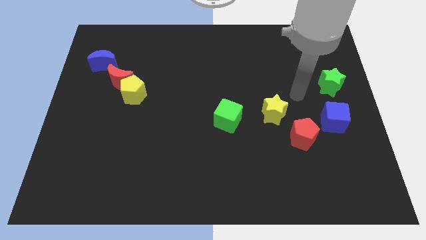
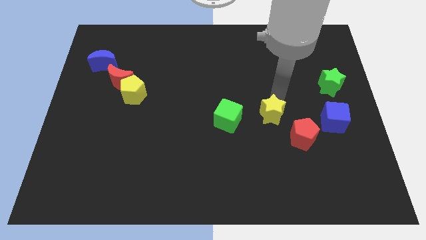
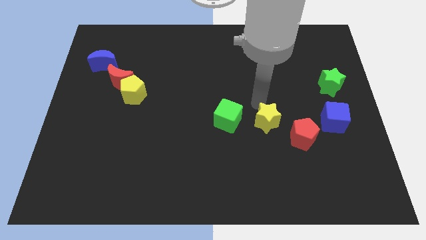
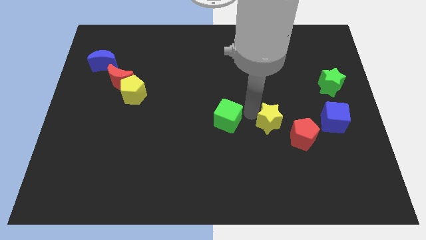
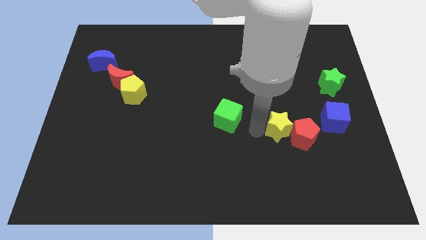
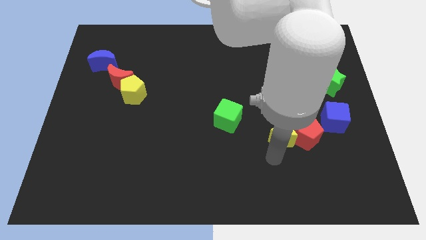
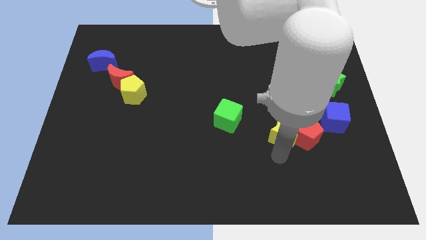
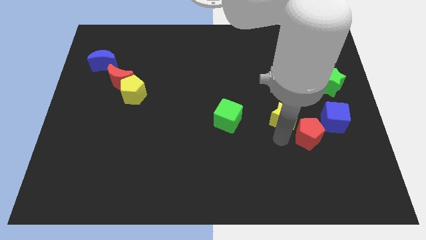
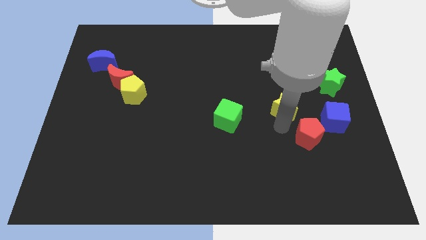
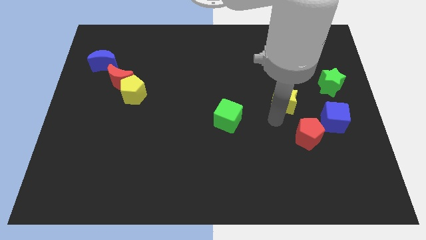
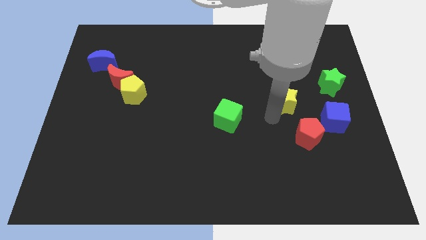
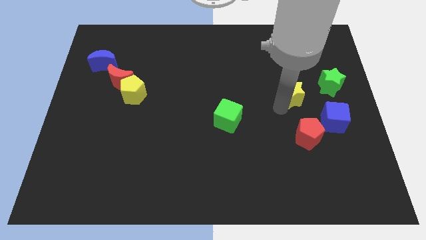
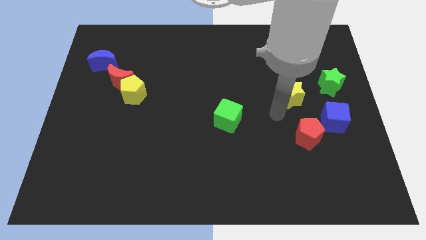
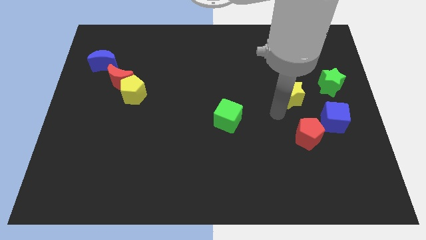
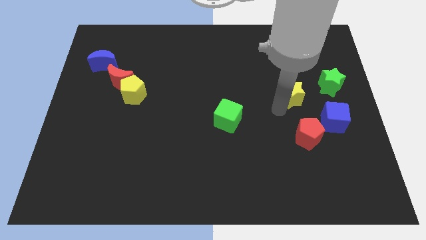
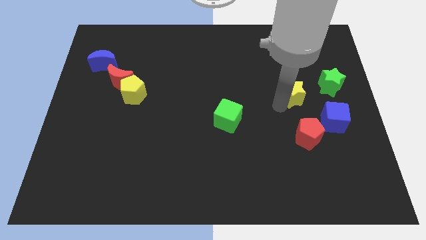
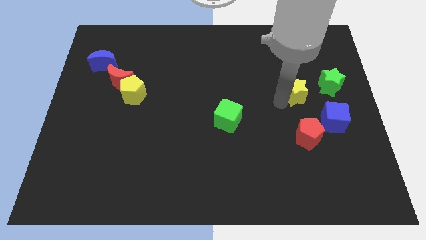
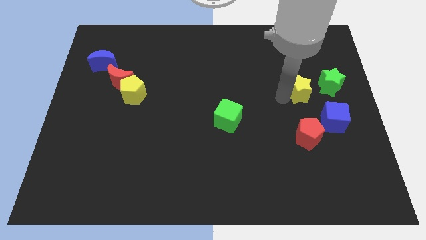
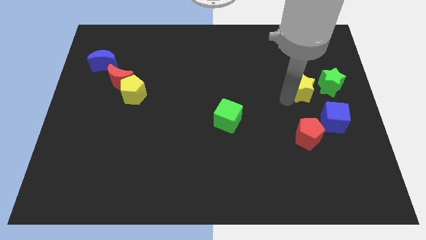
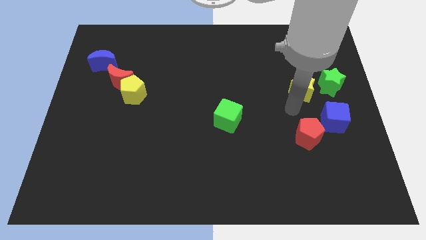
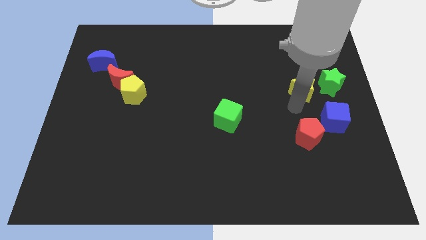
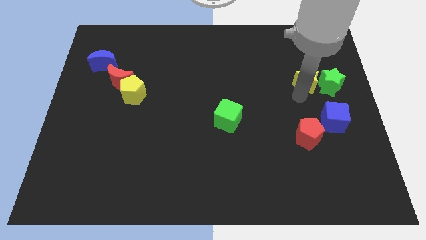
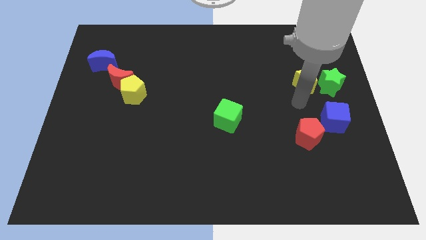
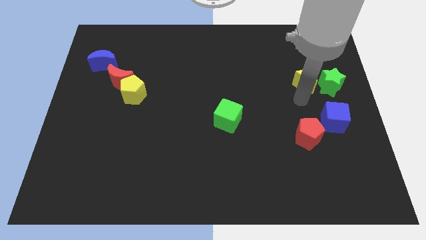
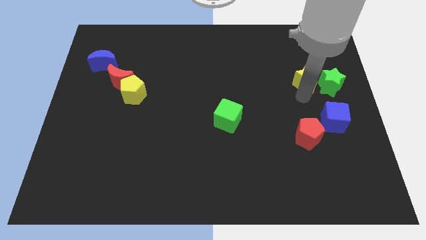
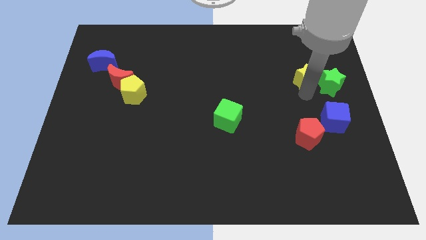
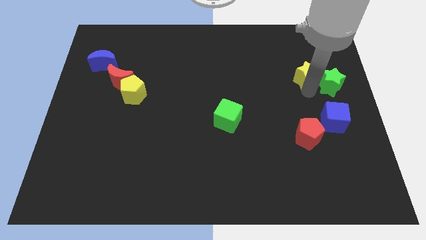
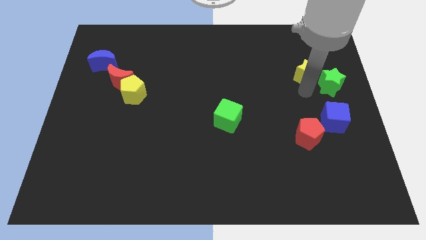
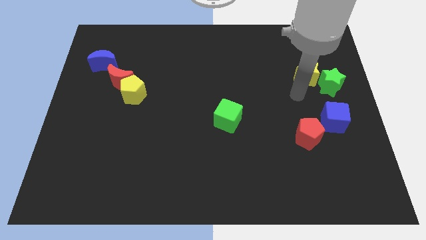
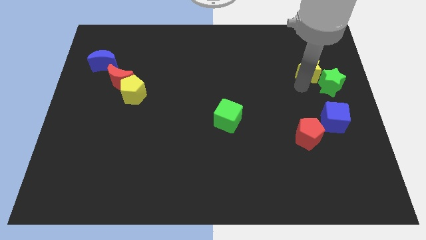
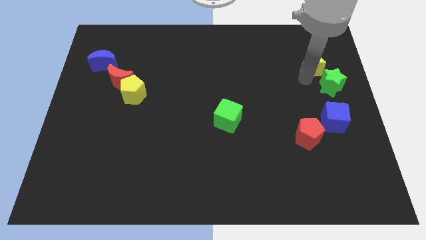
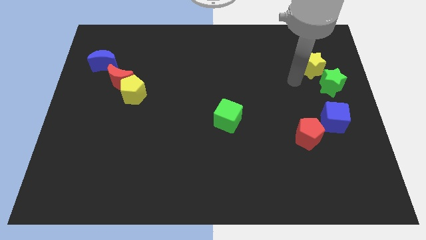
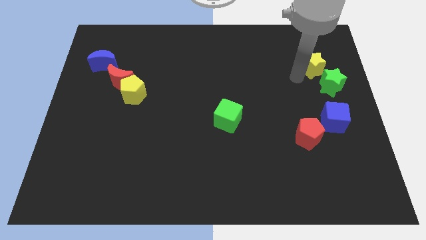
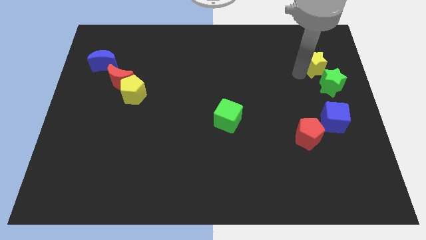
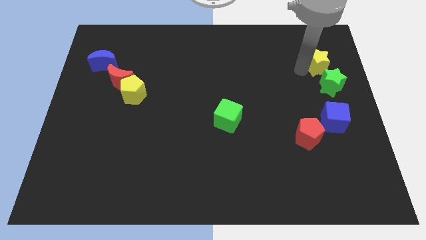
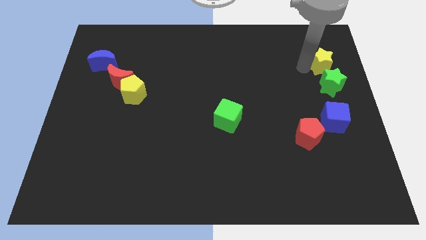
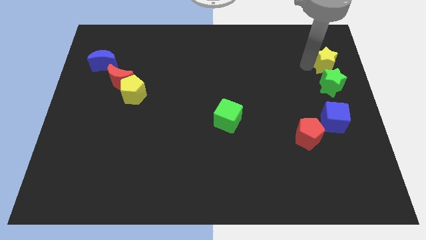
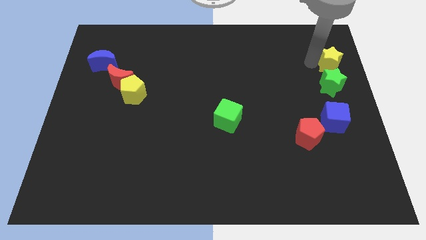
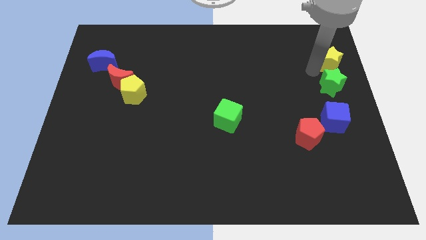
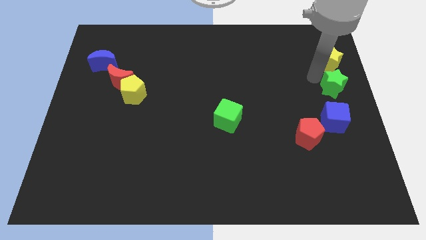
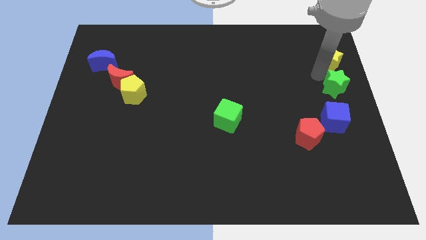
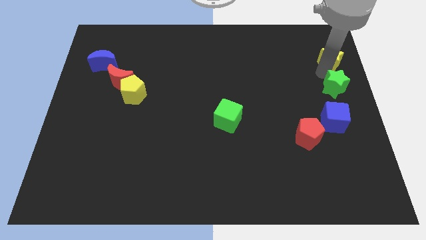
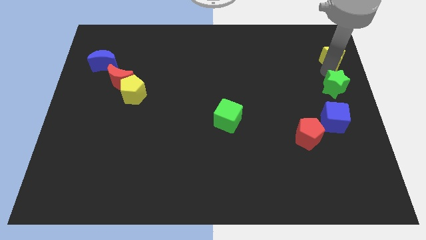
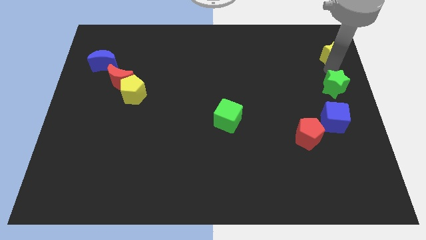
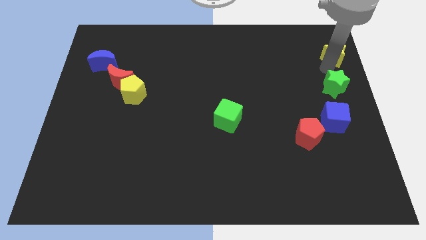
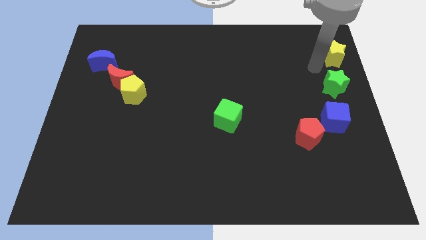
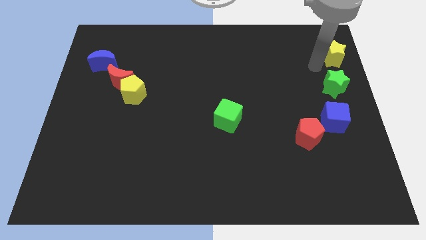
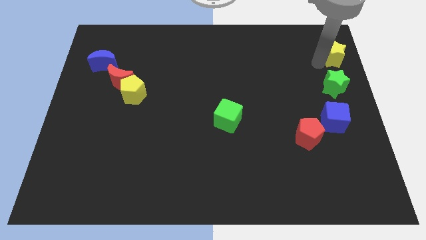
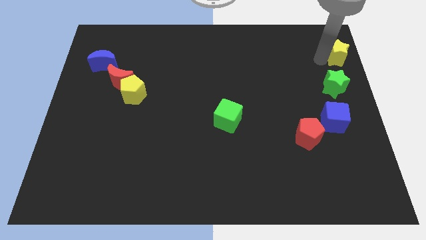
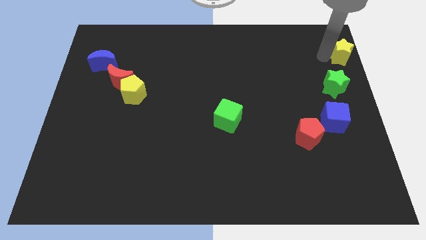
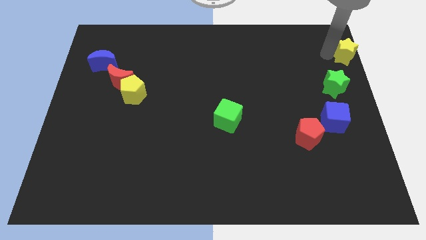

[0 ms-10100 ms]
put the yellow star to the top right
